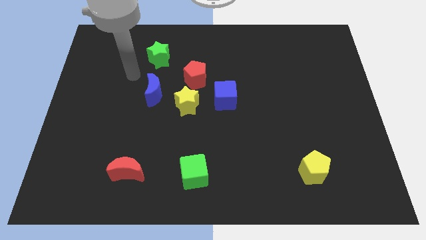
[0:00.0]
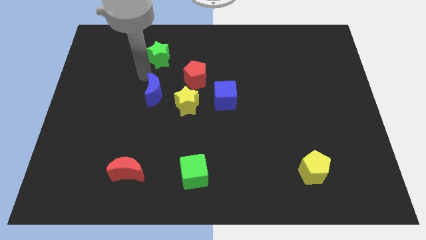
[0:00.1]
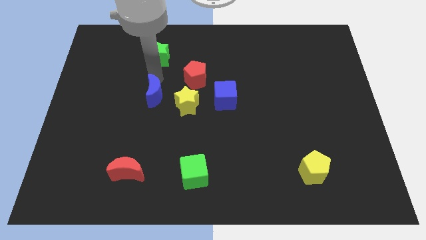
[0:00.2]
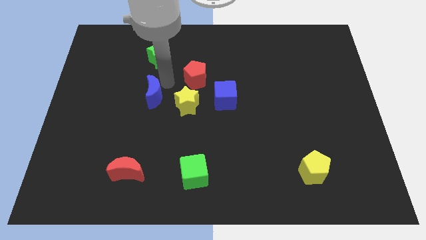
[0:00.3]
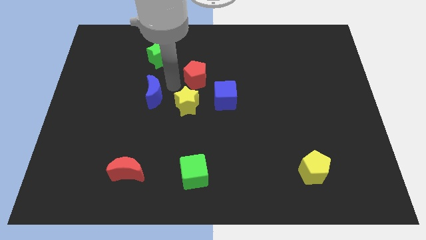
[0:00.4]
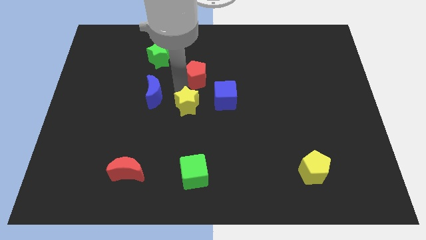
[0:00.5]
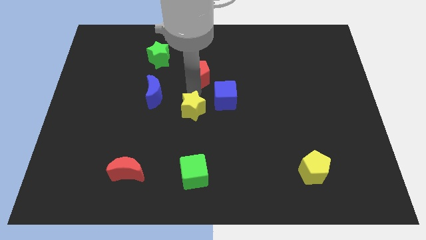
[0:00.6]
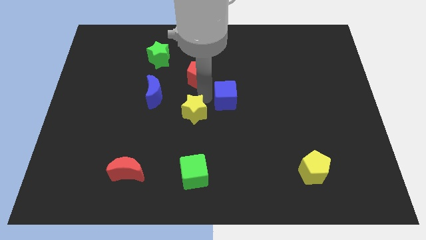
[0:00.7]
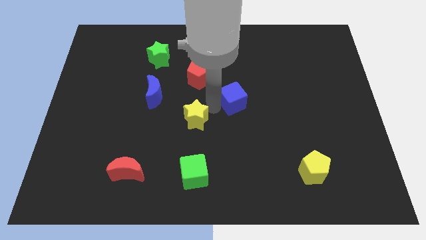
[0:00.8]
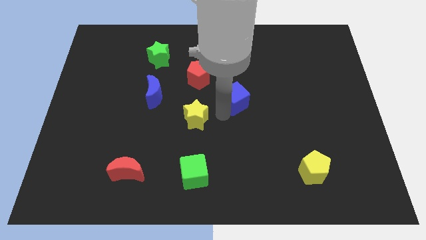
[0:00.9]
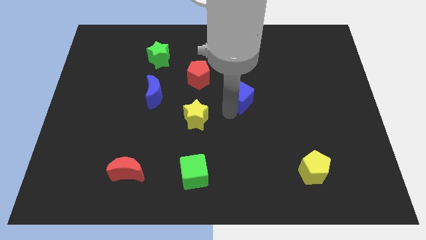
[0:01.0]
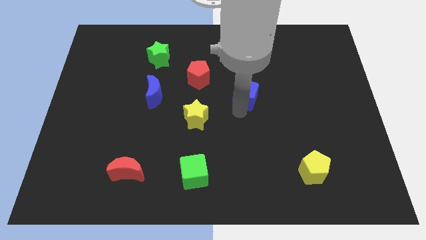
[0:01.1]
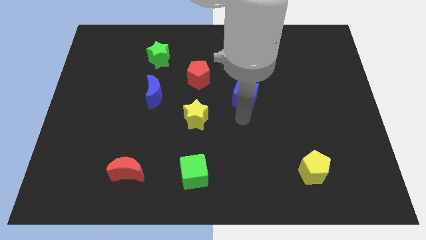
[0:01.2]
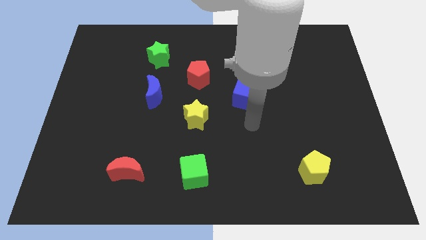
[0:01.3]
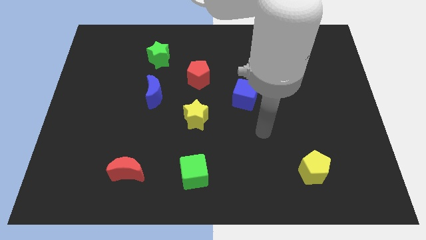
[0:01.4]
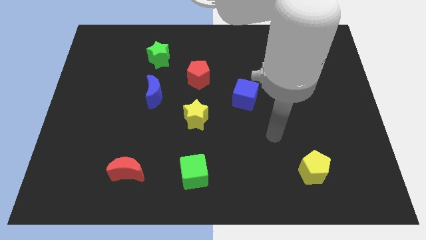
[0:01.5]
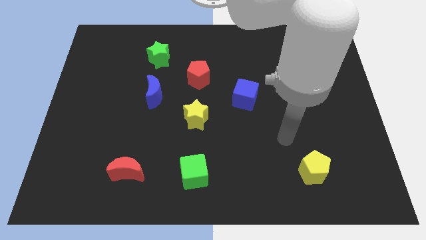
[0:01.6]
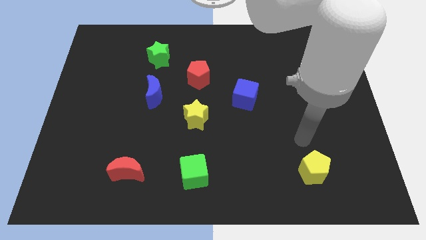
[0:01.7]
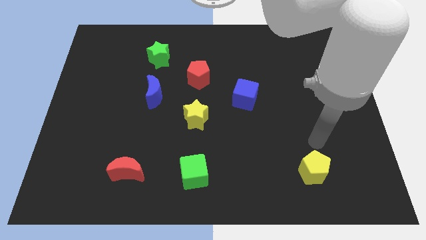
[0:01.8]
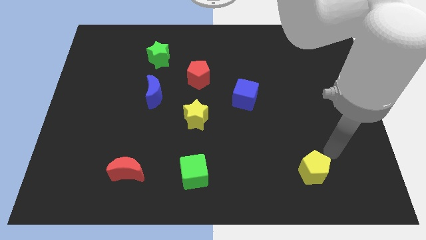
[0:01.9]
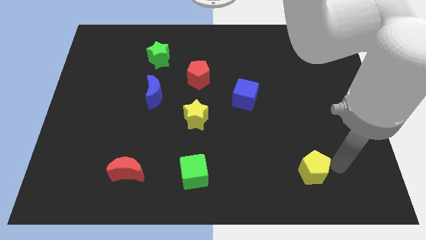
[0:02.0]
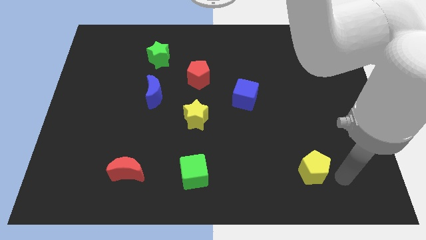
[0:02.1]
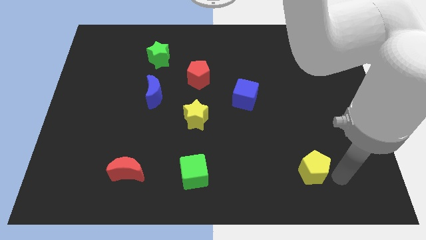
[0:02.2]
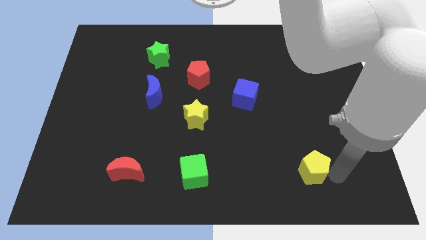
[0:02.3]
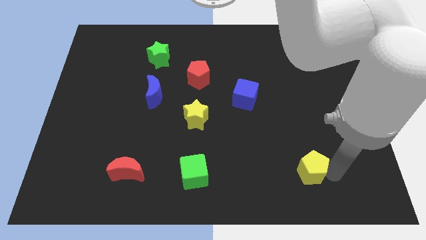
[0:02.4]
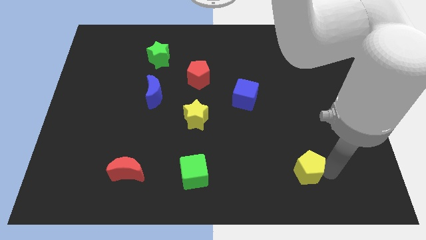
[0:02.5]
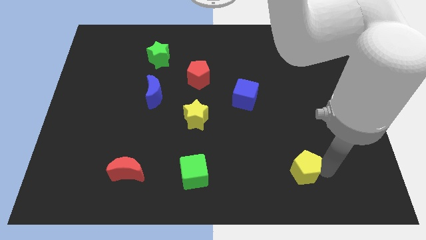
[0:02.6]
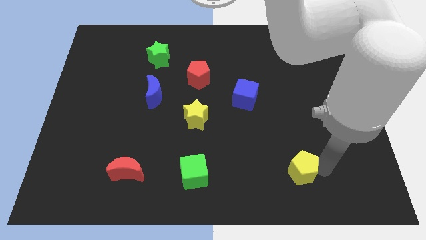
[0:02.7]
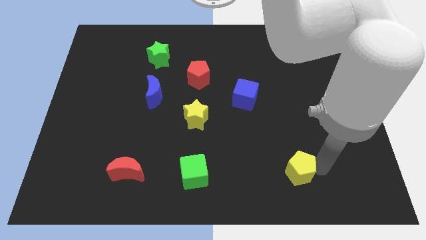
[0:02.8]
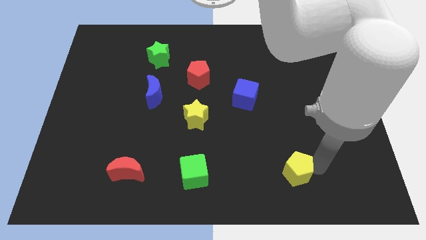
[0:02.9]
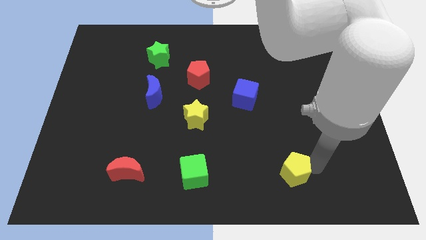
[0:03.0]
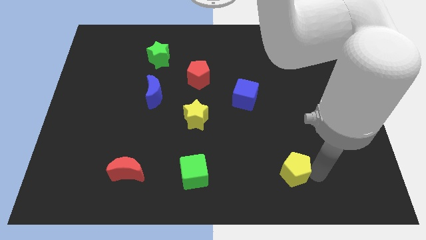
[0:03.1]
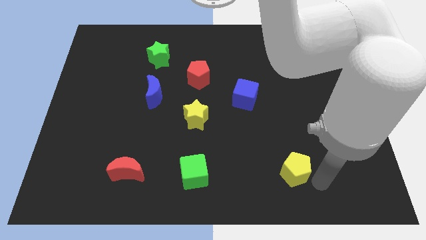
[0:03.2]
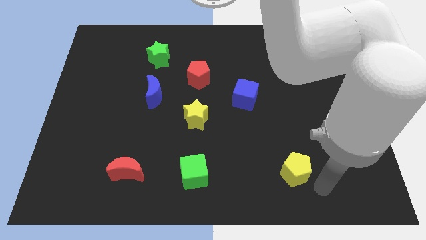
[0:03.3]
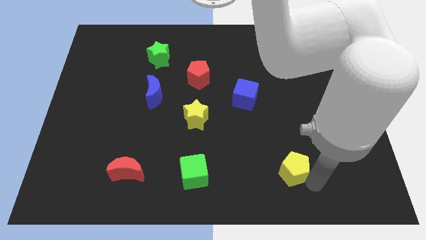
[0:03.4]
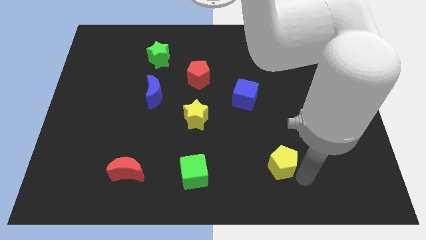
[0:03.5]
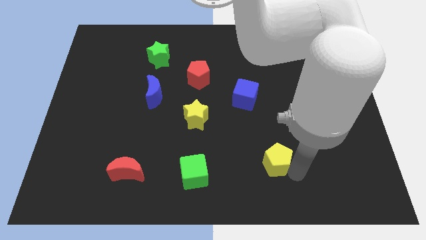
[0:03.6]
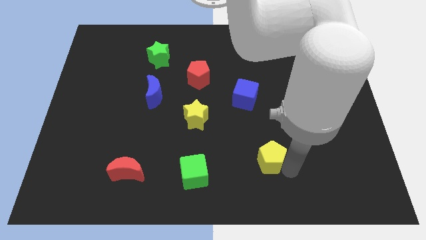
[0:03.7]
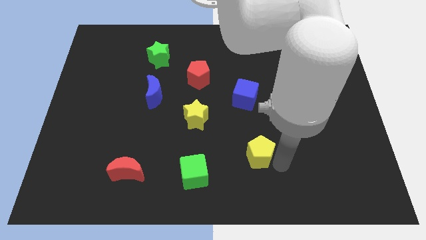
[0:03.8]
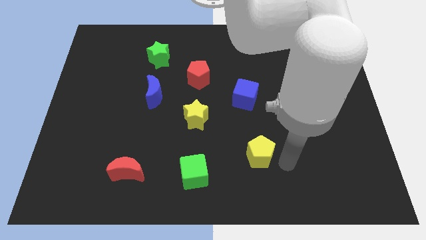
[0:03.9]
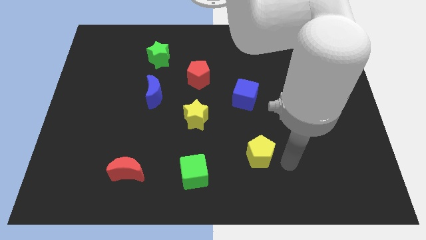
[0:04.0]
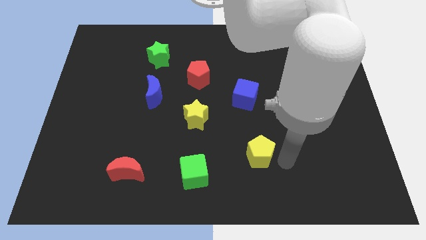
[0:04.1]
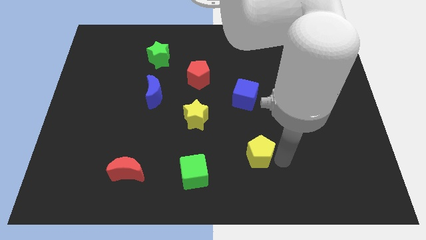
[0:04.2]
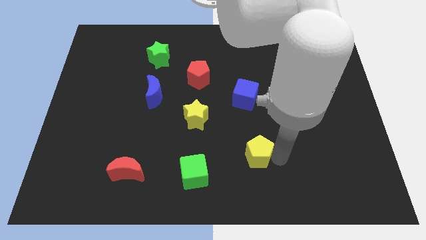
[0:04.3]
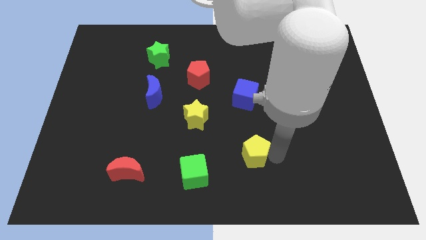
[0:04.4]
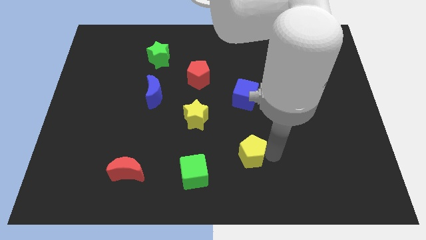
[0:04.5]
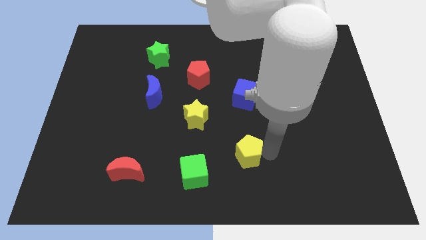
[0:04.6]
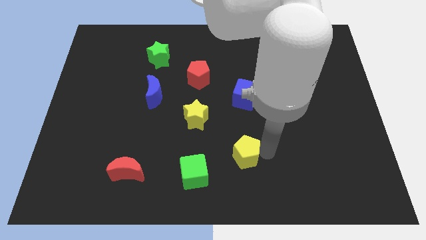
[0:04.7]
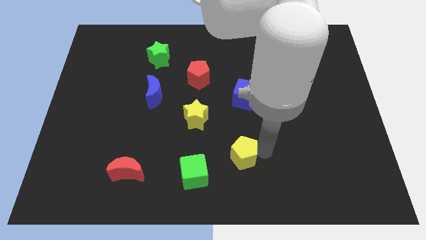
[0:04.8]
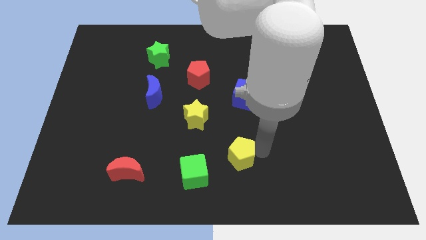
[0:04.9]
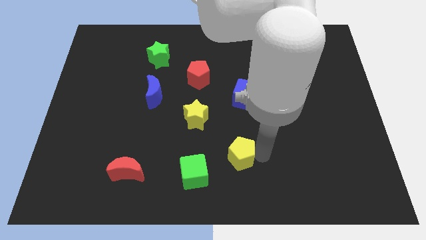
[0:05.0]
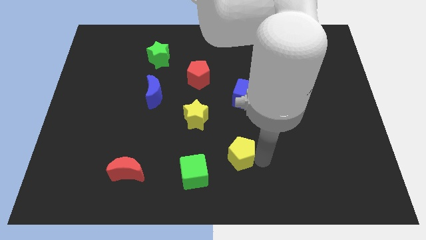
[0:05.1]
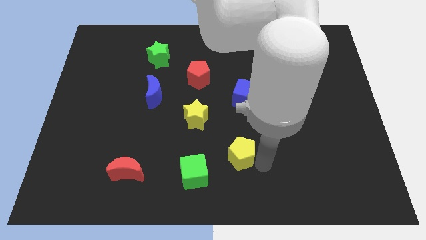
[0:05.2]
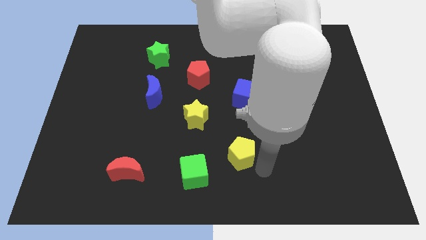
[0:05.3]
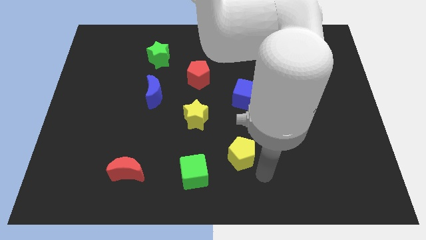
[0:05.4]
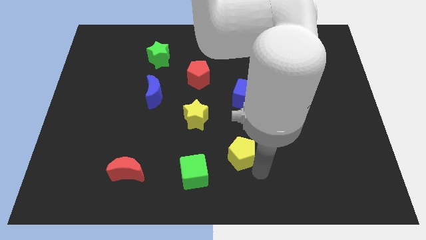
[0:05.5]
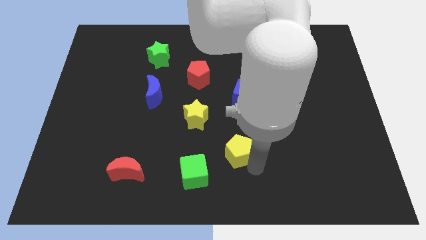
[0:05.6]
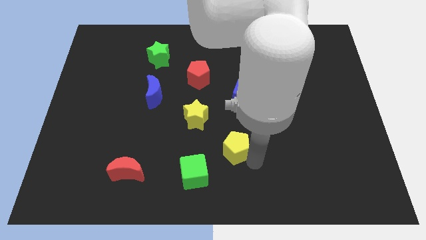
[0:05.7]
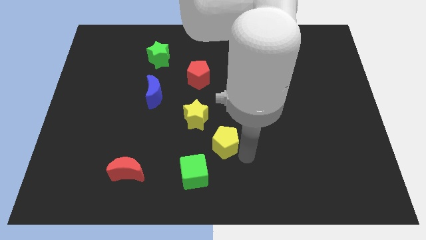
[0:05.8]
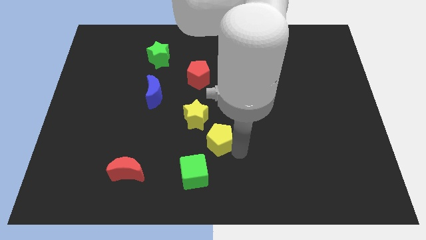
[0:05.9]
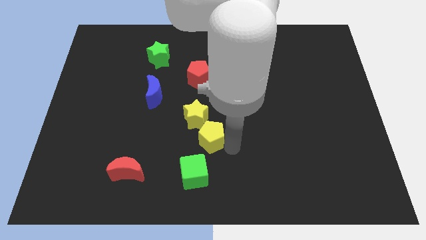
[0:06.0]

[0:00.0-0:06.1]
move the yellow pentagon to the top side of the green cube

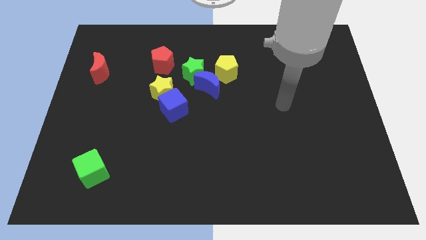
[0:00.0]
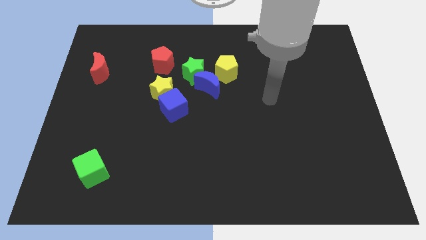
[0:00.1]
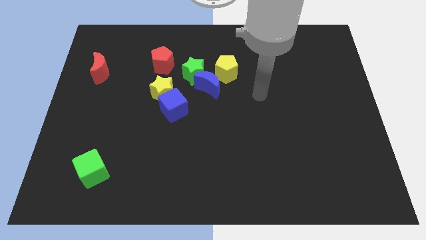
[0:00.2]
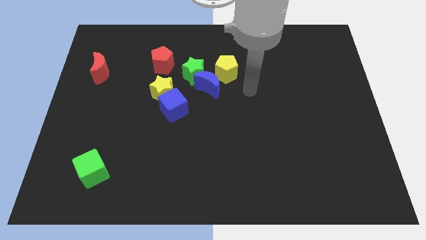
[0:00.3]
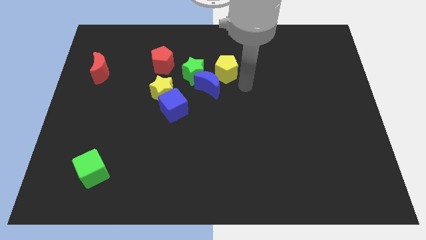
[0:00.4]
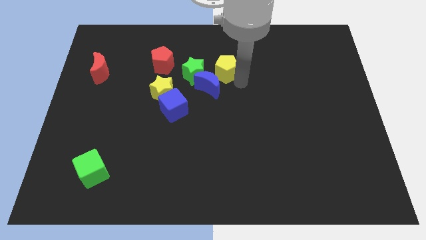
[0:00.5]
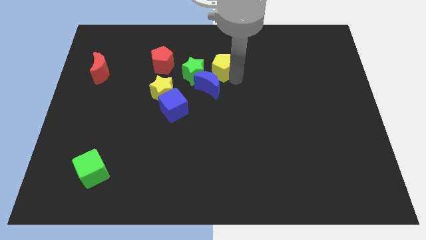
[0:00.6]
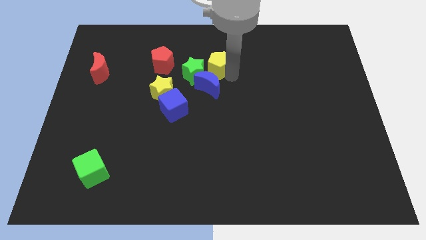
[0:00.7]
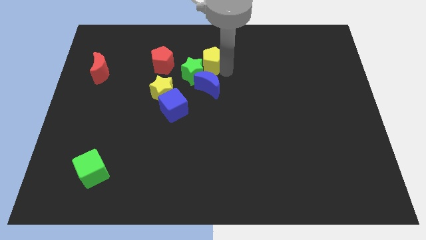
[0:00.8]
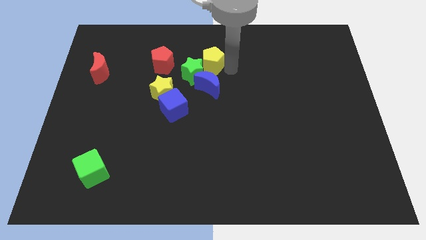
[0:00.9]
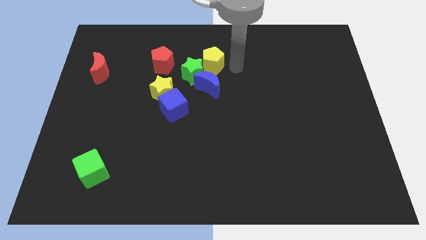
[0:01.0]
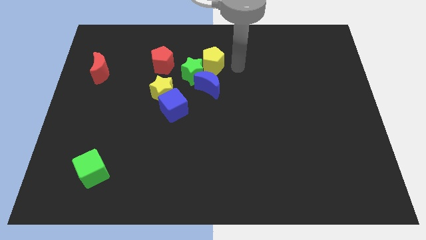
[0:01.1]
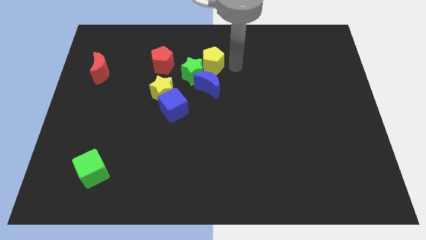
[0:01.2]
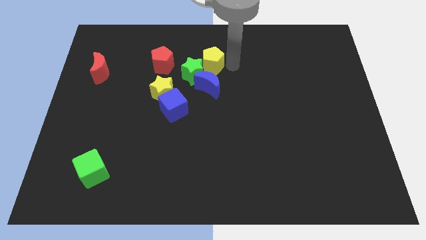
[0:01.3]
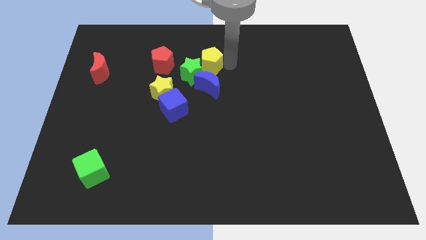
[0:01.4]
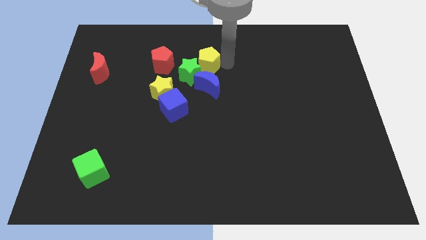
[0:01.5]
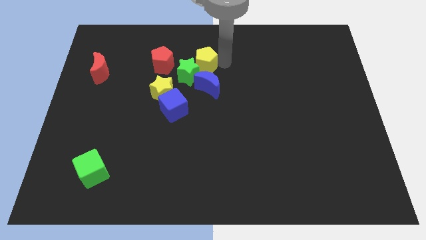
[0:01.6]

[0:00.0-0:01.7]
push the yellow pentagon diagonally up and to the left of the blue moon
